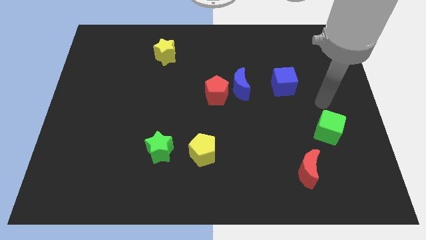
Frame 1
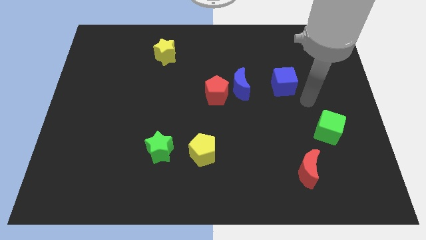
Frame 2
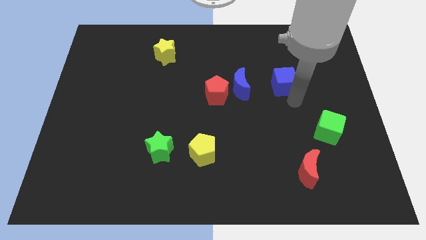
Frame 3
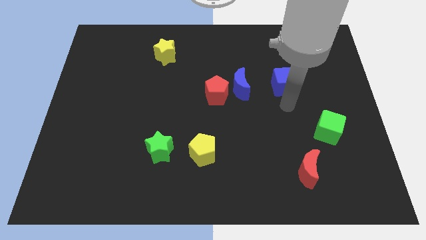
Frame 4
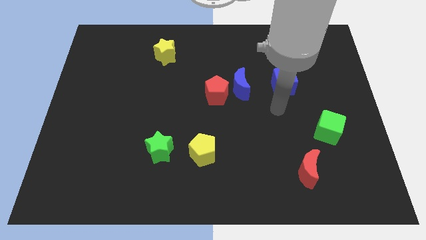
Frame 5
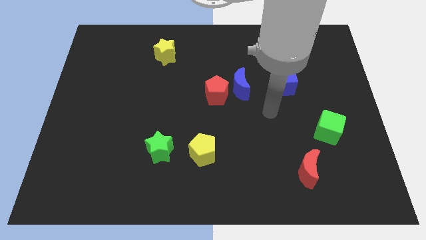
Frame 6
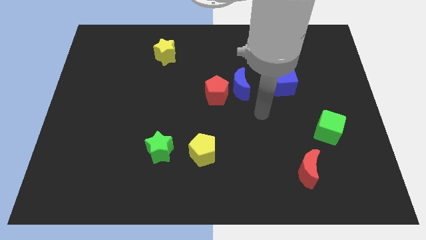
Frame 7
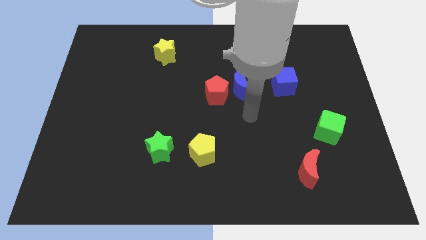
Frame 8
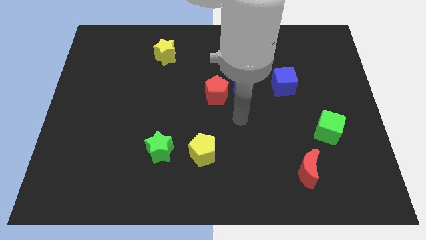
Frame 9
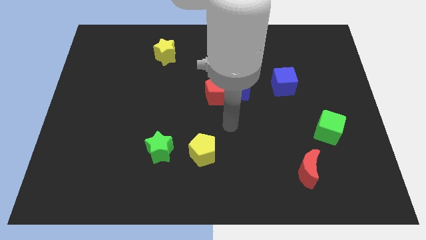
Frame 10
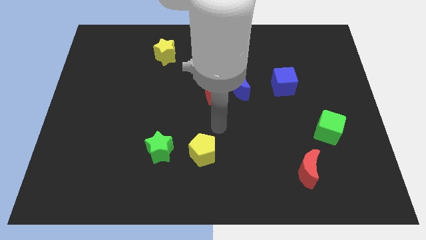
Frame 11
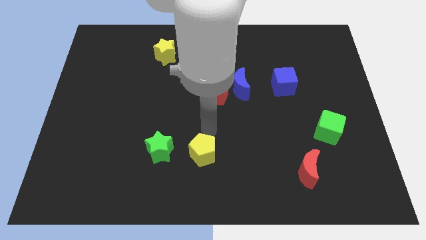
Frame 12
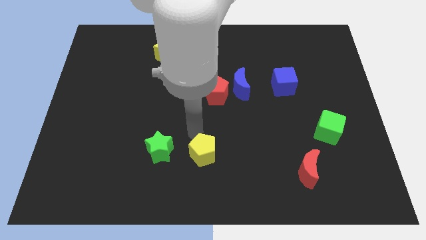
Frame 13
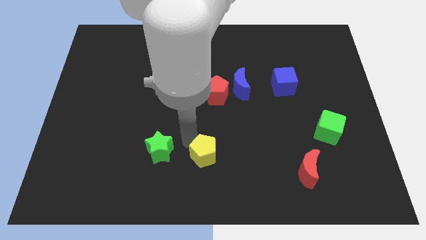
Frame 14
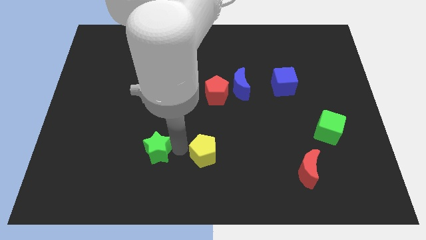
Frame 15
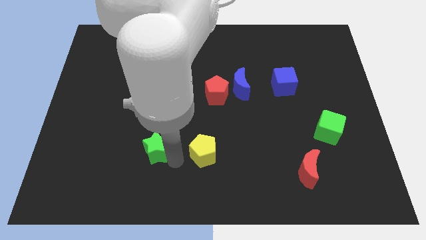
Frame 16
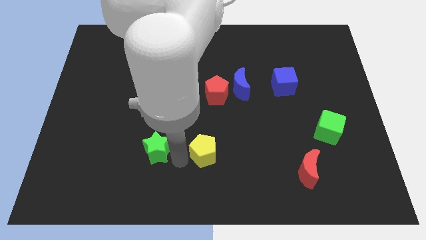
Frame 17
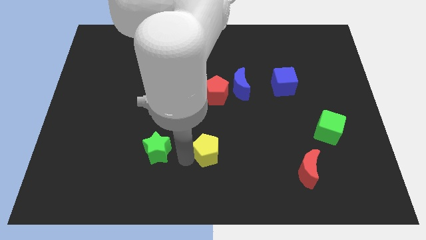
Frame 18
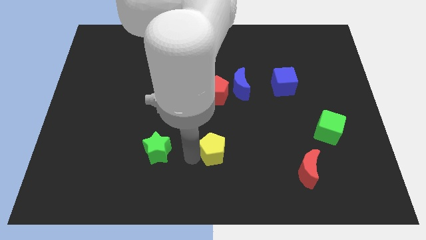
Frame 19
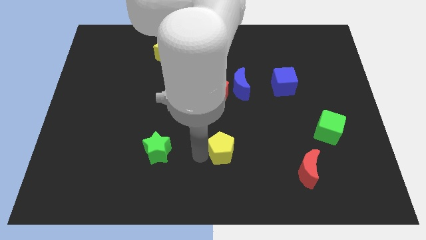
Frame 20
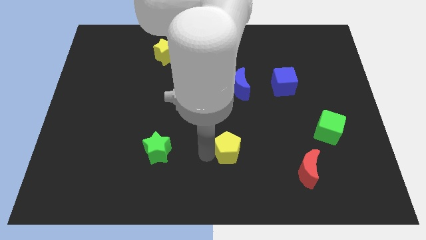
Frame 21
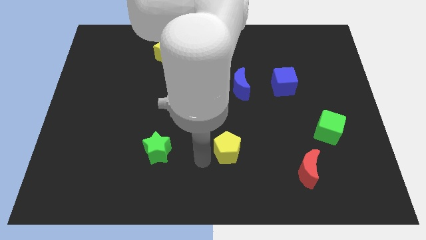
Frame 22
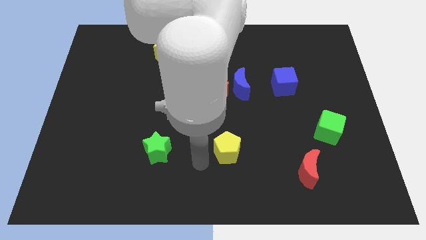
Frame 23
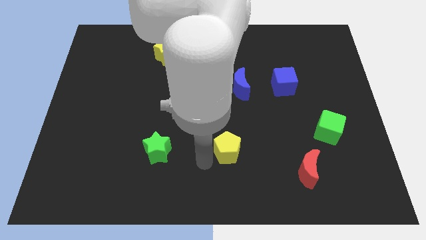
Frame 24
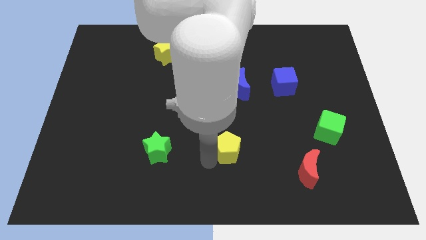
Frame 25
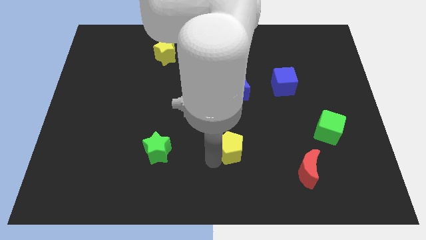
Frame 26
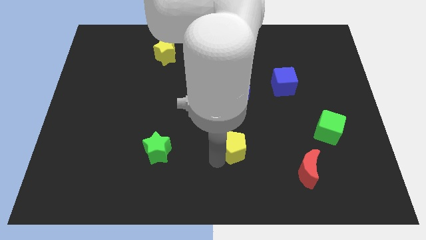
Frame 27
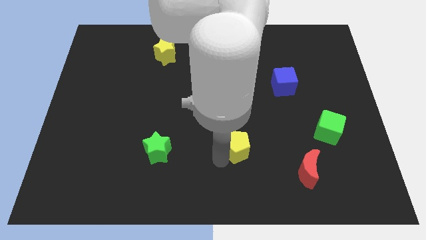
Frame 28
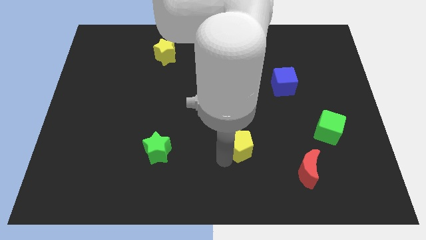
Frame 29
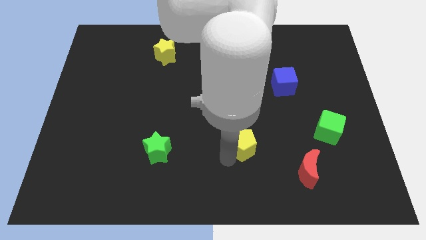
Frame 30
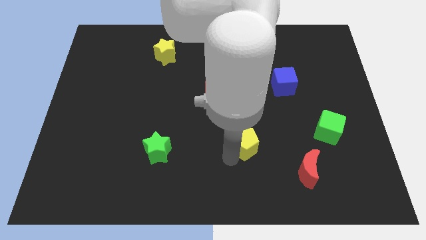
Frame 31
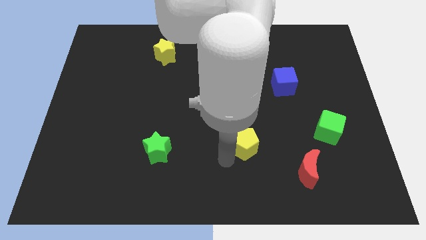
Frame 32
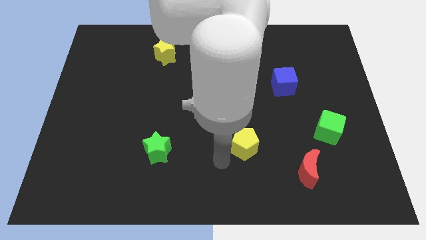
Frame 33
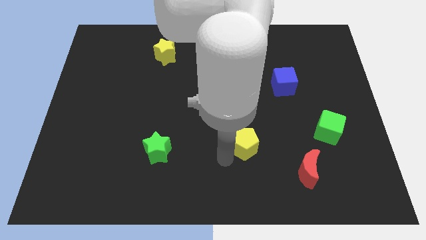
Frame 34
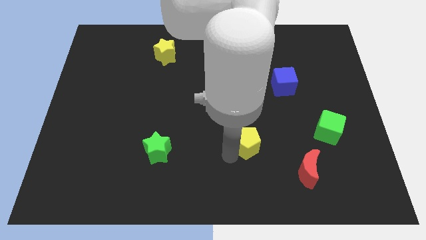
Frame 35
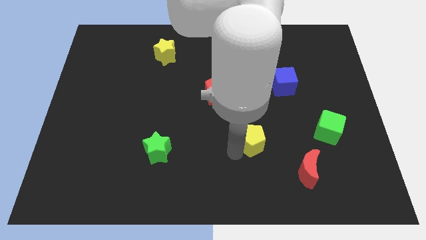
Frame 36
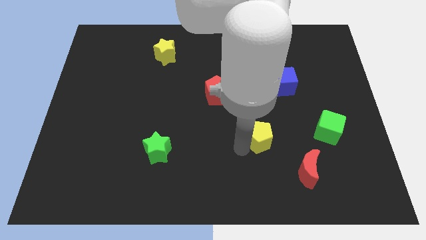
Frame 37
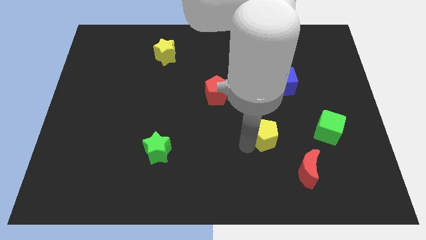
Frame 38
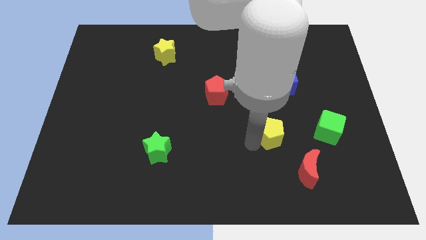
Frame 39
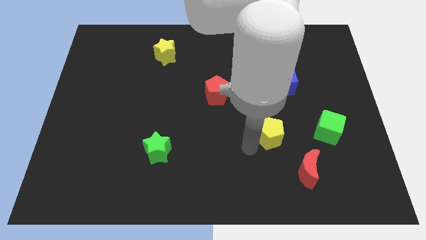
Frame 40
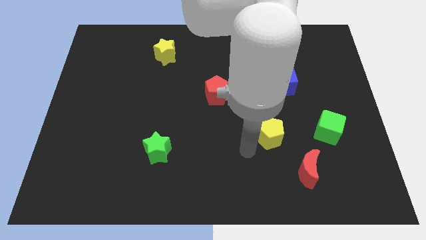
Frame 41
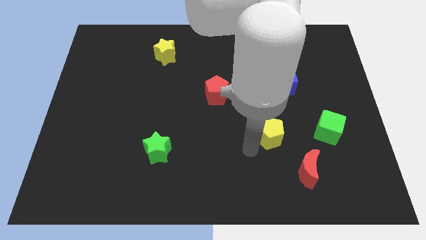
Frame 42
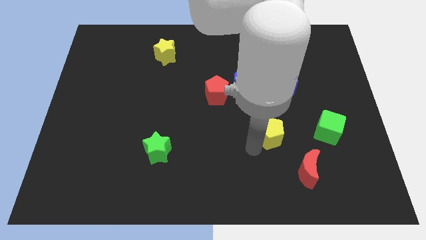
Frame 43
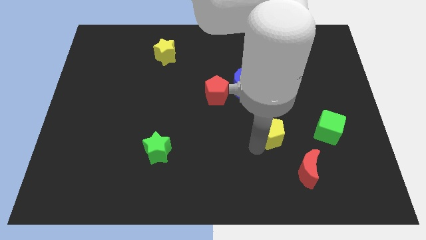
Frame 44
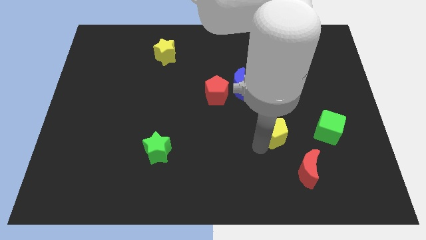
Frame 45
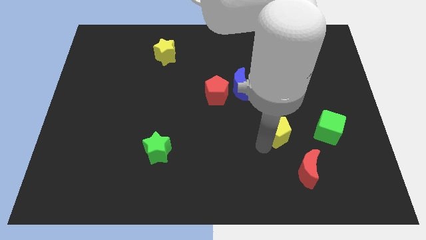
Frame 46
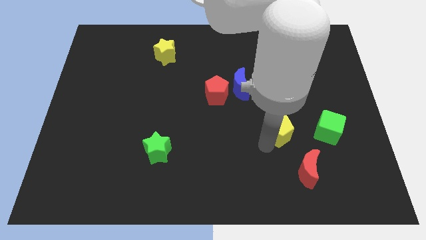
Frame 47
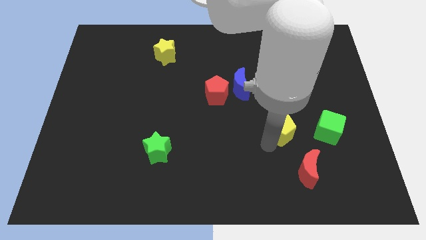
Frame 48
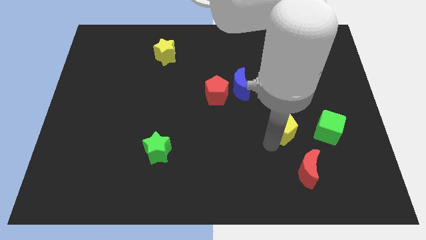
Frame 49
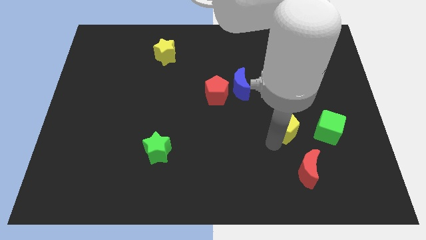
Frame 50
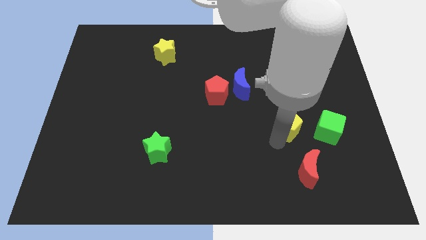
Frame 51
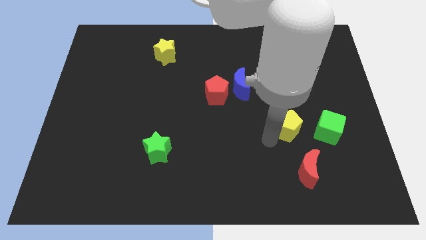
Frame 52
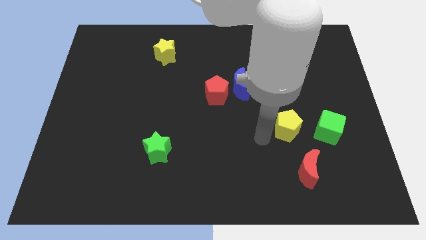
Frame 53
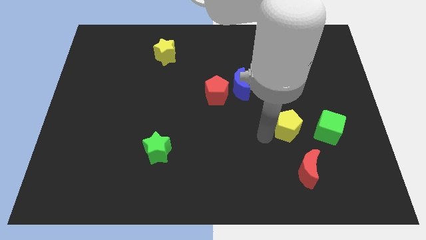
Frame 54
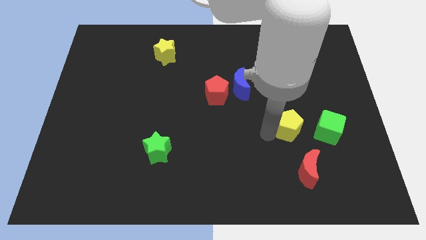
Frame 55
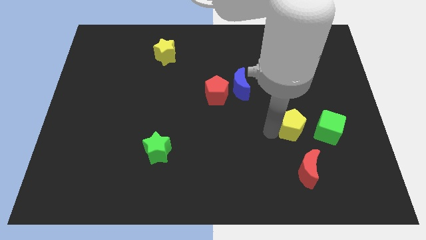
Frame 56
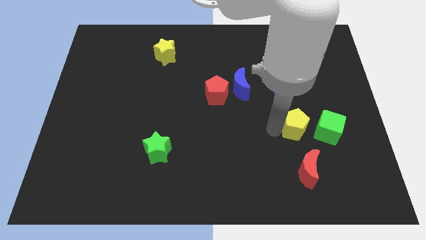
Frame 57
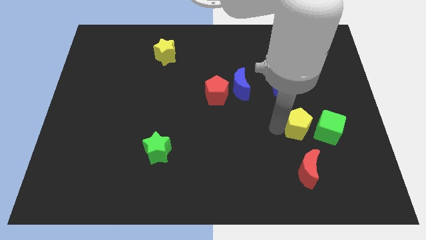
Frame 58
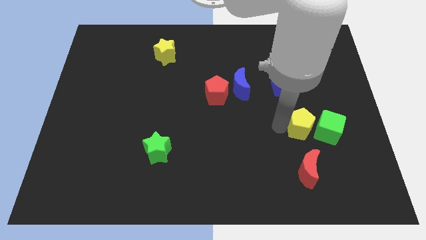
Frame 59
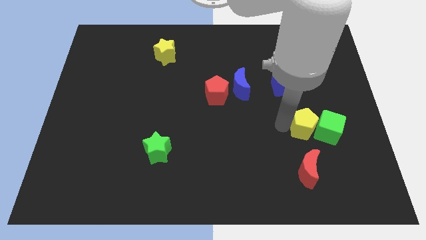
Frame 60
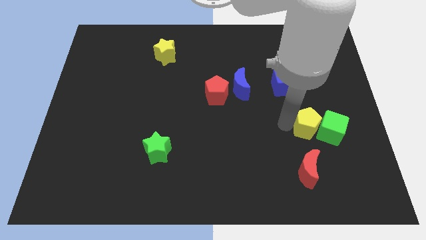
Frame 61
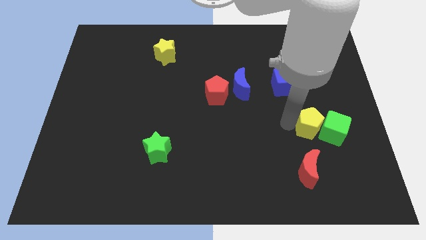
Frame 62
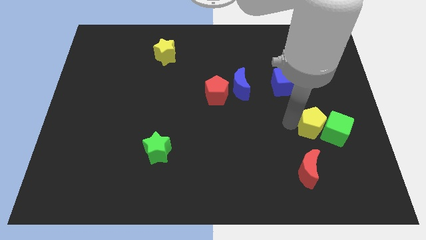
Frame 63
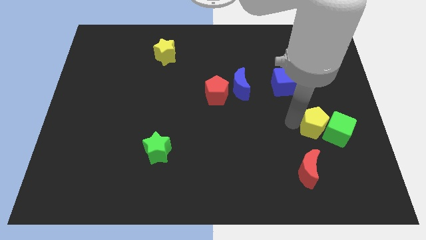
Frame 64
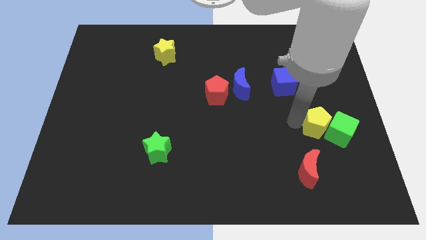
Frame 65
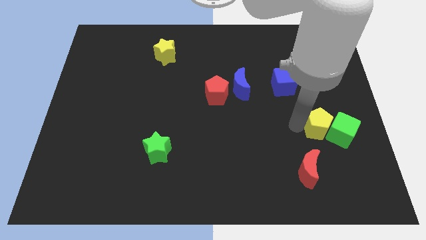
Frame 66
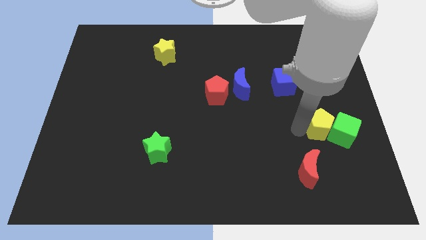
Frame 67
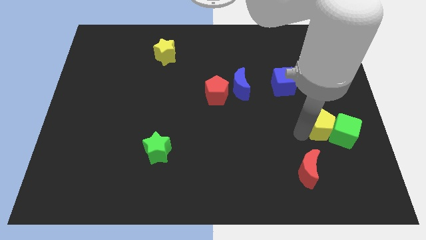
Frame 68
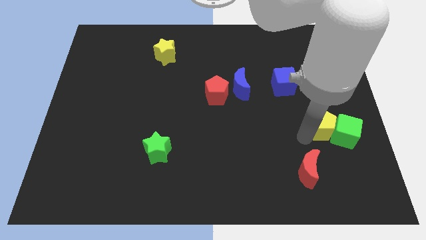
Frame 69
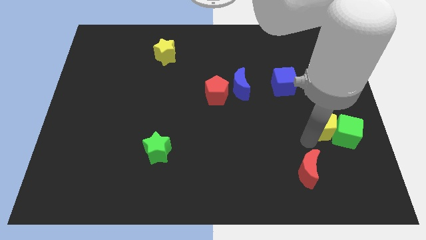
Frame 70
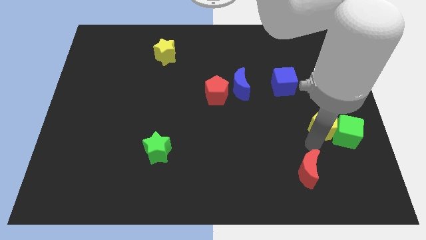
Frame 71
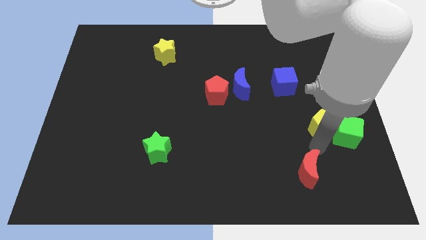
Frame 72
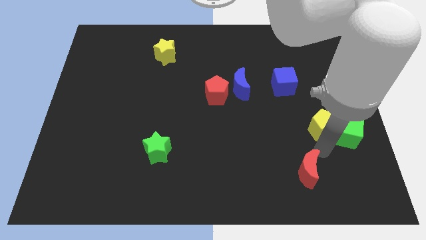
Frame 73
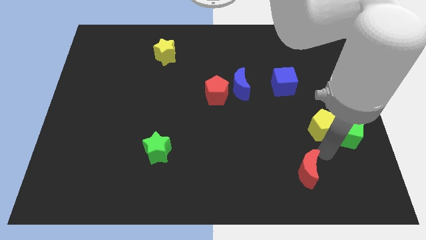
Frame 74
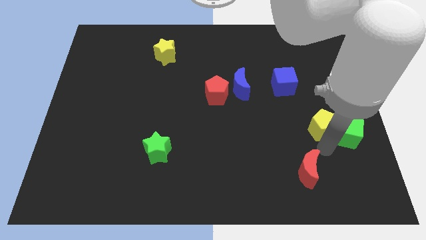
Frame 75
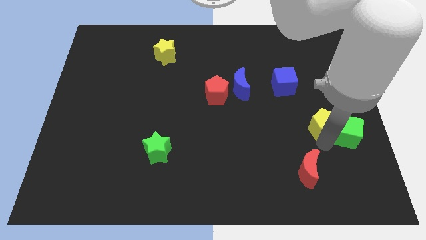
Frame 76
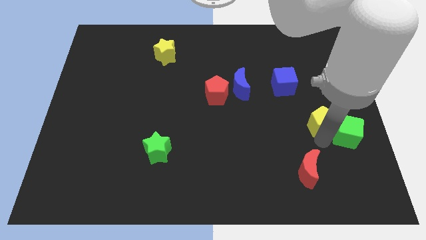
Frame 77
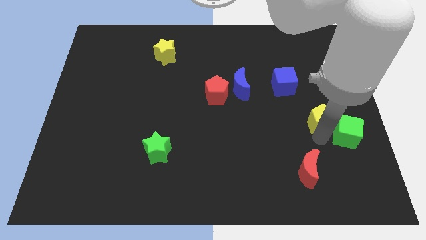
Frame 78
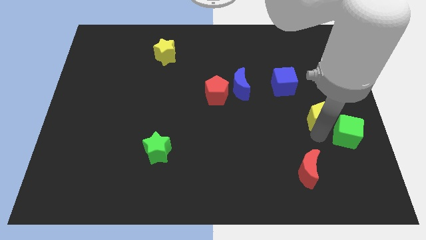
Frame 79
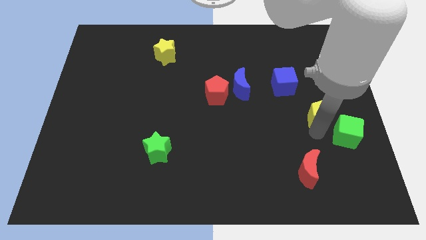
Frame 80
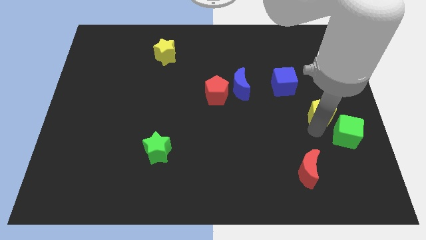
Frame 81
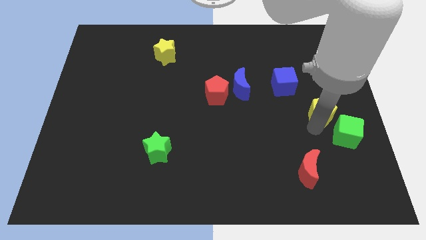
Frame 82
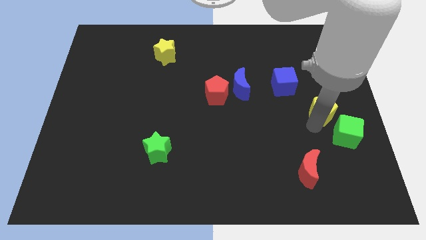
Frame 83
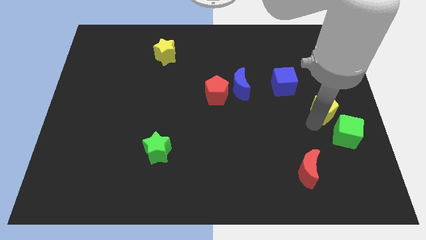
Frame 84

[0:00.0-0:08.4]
push the yellow pentagon to the right side
